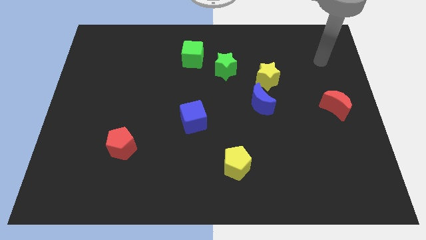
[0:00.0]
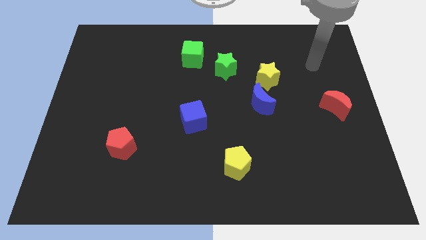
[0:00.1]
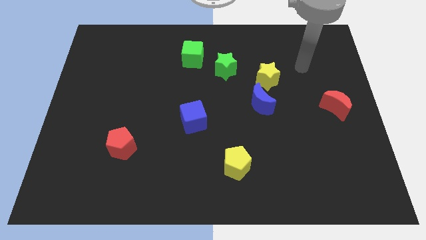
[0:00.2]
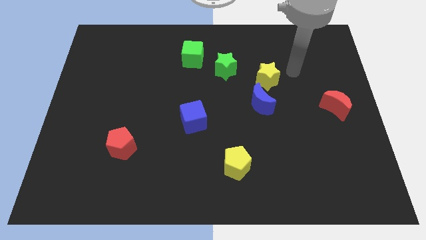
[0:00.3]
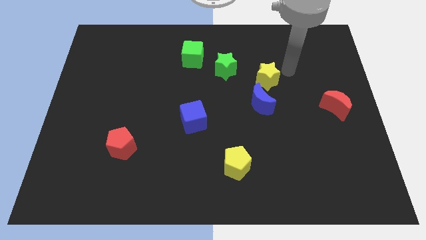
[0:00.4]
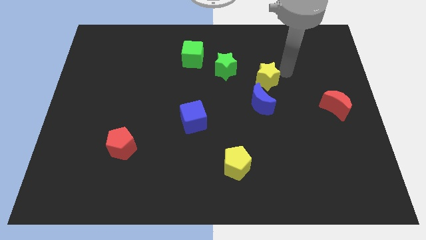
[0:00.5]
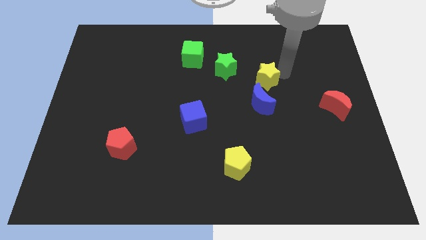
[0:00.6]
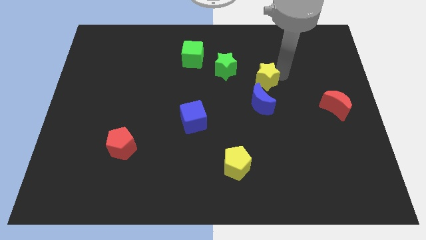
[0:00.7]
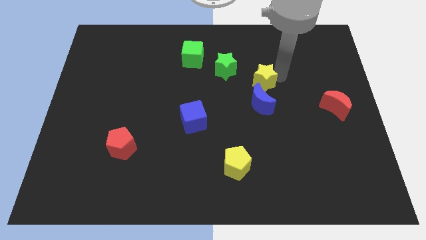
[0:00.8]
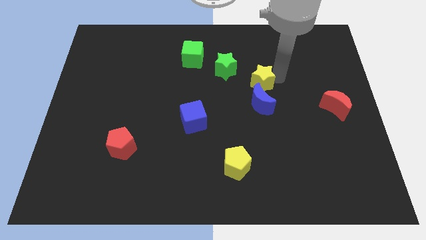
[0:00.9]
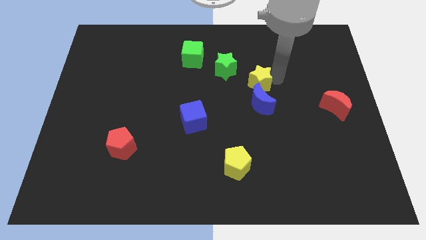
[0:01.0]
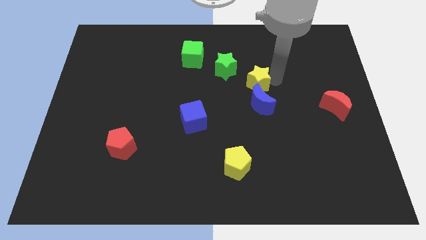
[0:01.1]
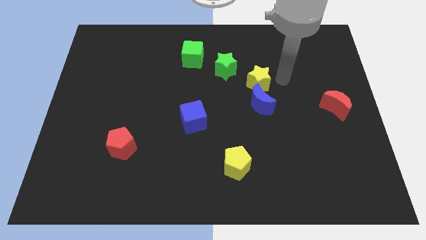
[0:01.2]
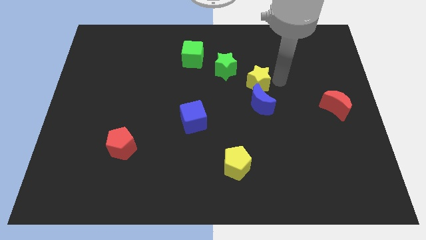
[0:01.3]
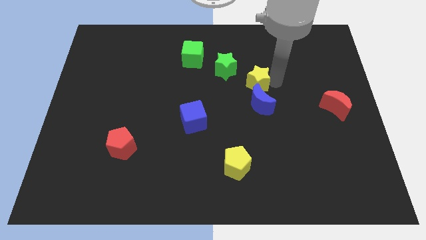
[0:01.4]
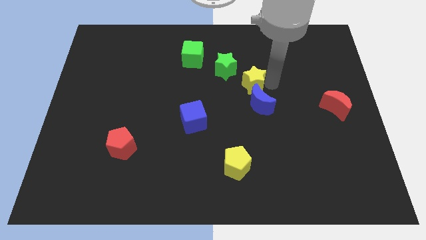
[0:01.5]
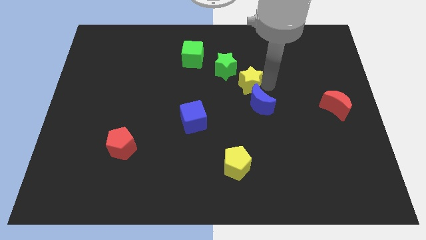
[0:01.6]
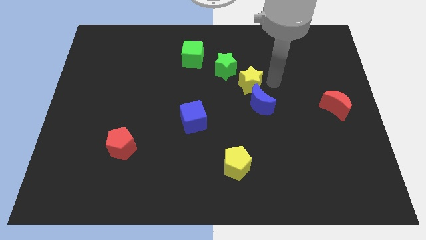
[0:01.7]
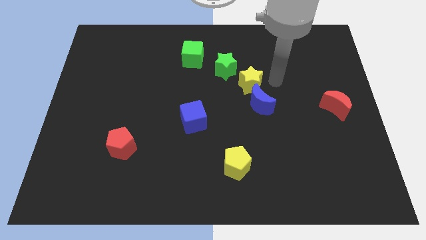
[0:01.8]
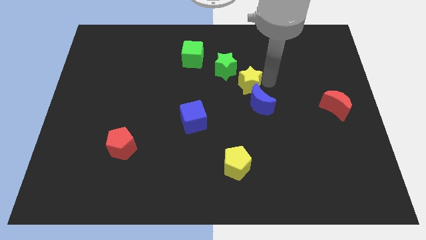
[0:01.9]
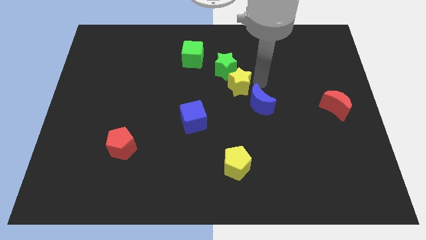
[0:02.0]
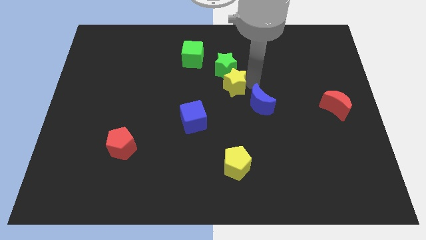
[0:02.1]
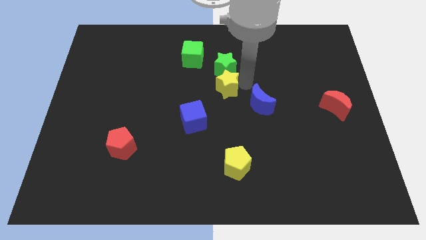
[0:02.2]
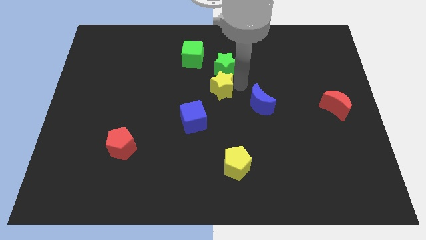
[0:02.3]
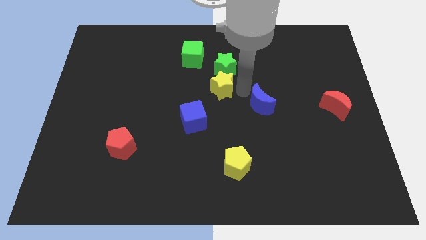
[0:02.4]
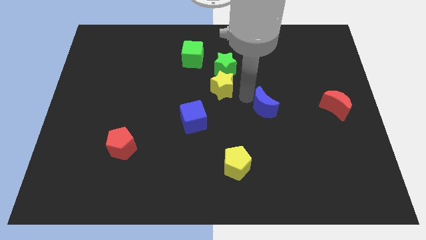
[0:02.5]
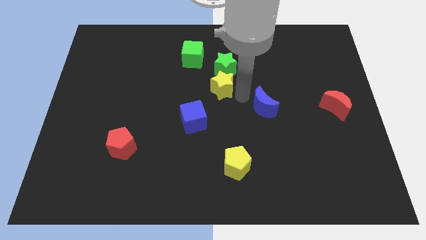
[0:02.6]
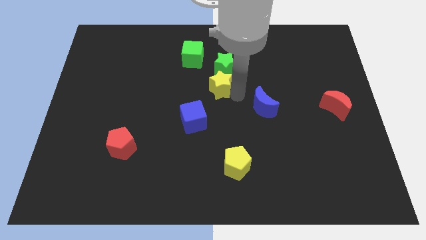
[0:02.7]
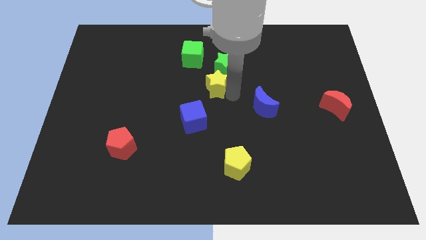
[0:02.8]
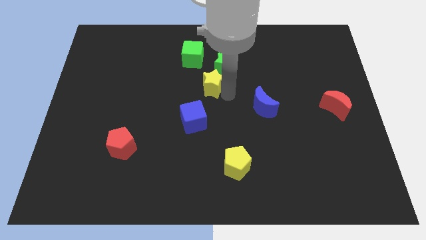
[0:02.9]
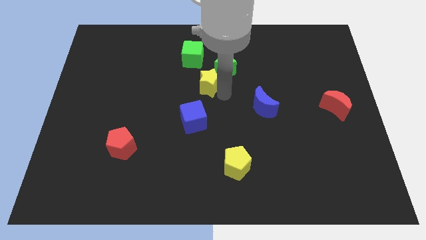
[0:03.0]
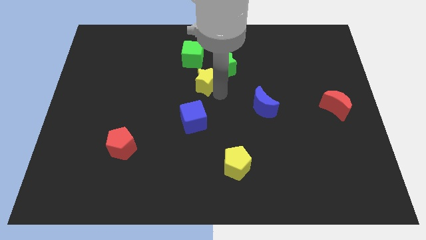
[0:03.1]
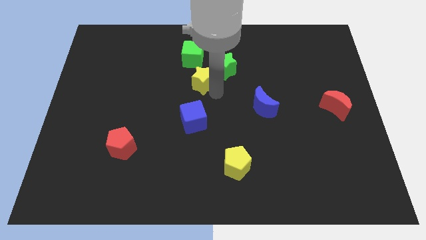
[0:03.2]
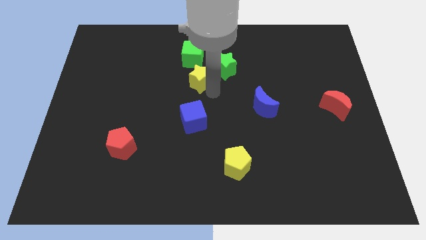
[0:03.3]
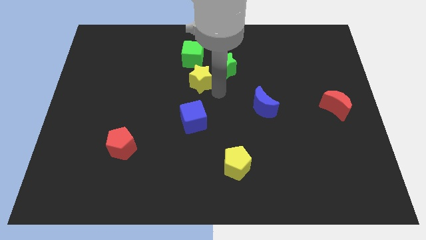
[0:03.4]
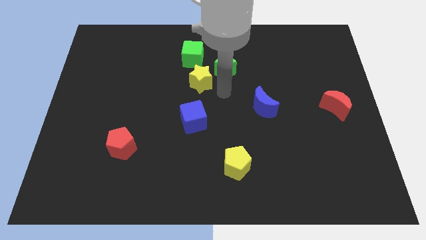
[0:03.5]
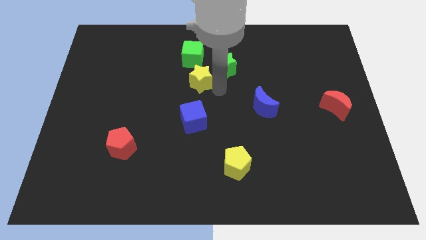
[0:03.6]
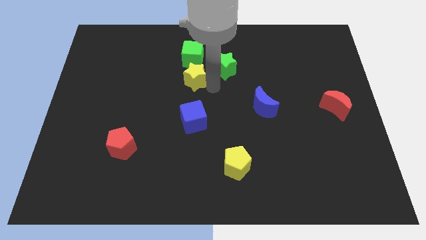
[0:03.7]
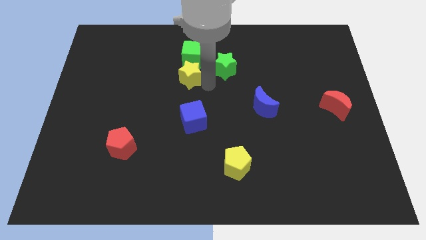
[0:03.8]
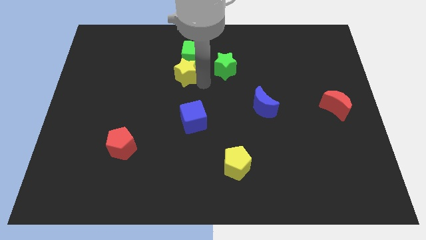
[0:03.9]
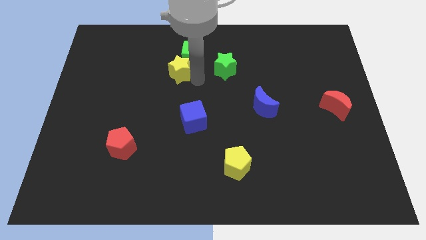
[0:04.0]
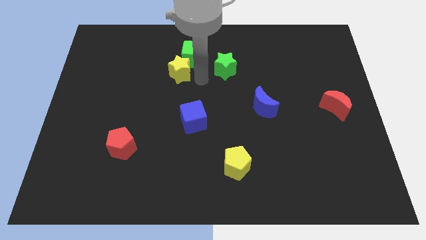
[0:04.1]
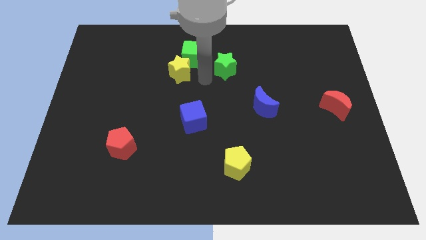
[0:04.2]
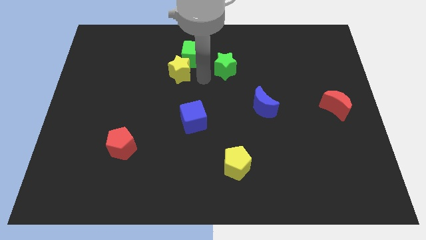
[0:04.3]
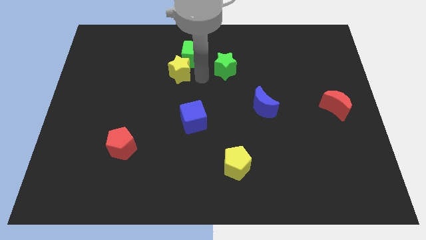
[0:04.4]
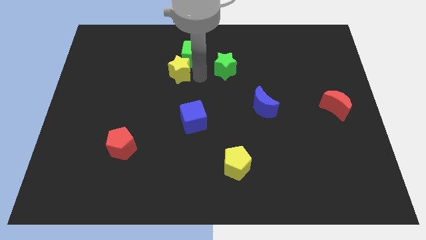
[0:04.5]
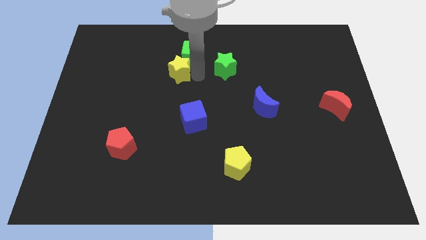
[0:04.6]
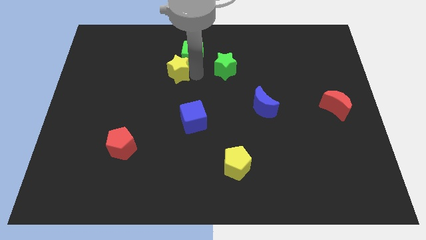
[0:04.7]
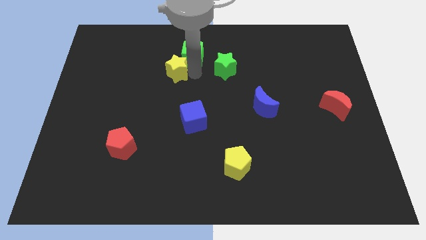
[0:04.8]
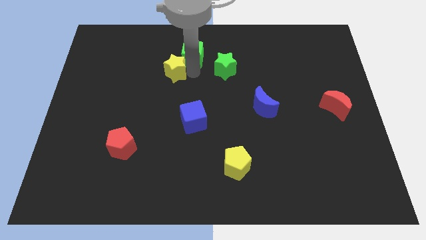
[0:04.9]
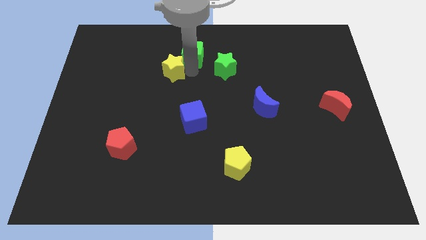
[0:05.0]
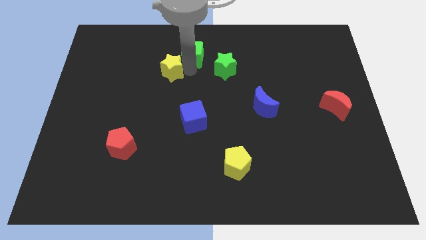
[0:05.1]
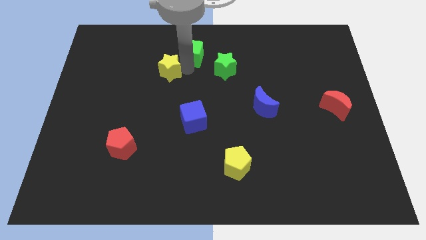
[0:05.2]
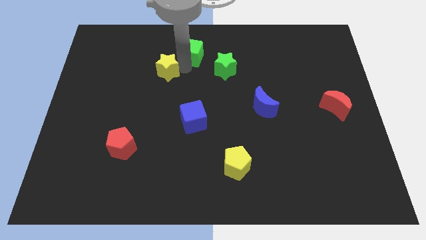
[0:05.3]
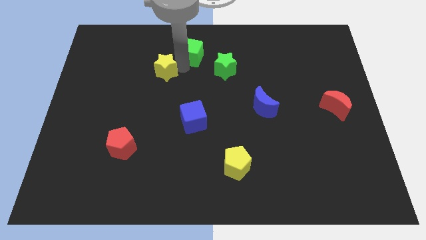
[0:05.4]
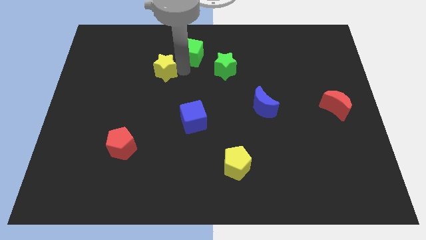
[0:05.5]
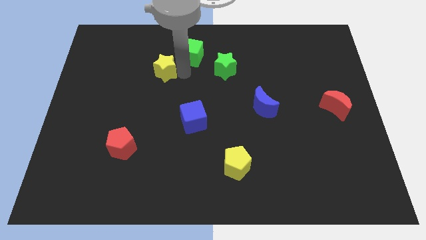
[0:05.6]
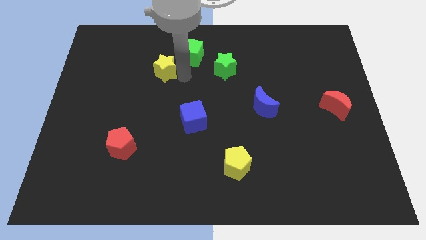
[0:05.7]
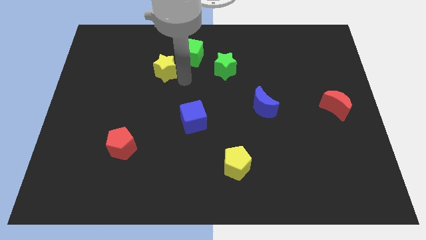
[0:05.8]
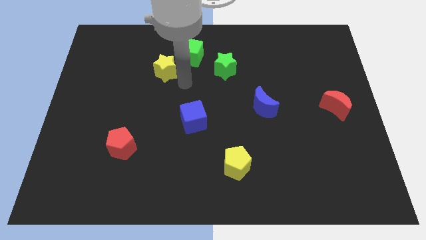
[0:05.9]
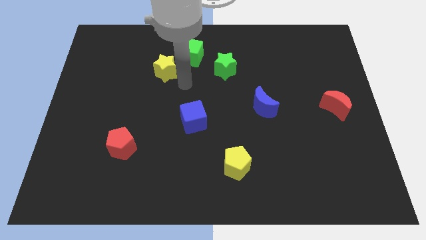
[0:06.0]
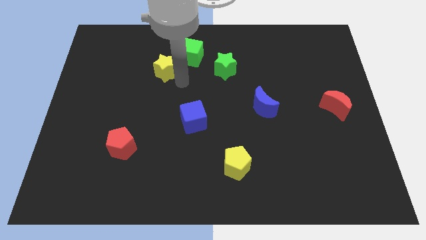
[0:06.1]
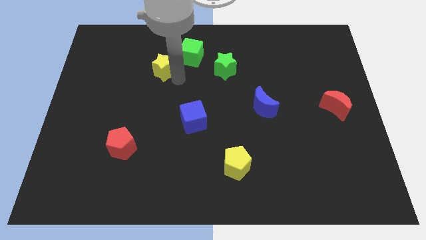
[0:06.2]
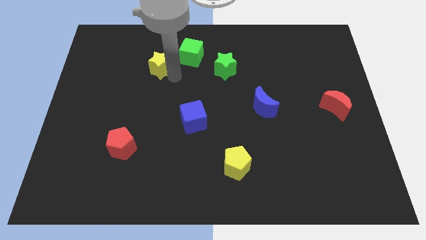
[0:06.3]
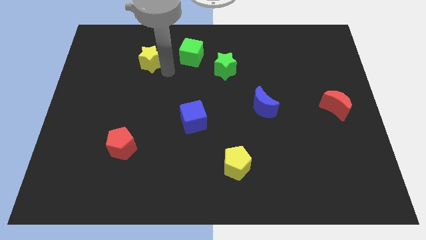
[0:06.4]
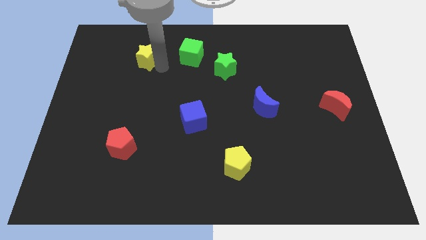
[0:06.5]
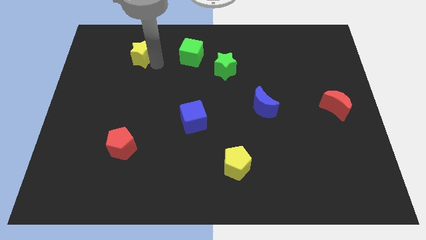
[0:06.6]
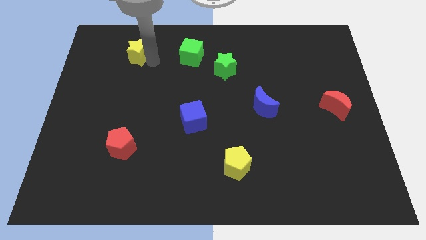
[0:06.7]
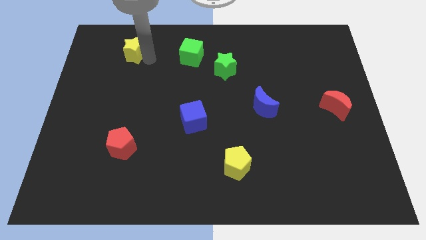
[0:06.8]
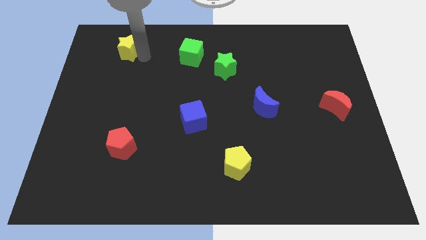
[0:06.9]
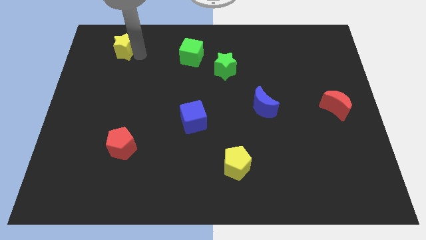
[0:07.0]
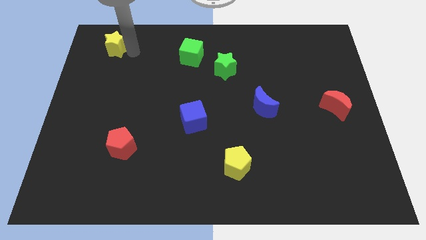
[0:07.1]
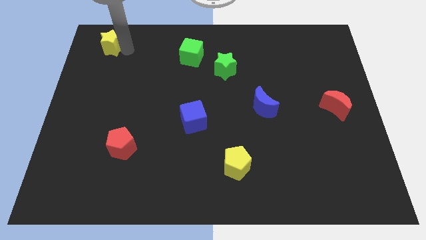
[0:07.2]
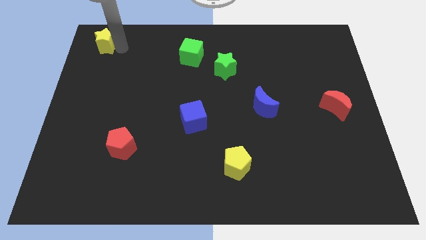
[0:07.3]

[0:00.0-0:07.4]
push the yellow star to the top left of the board
